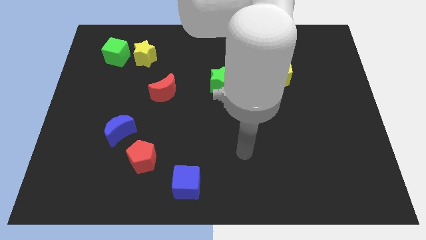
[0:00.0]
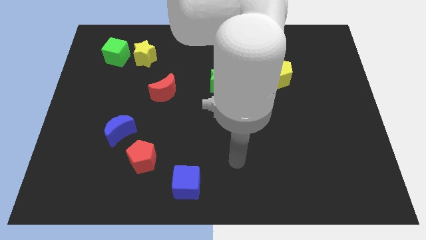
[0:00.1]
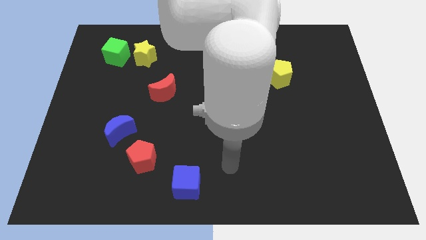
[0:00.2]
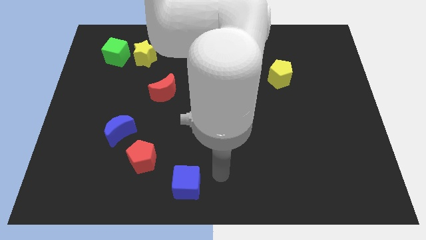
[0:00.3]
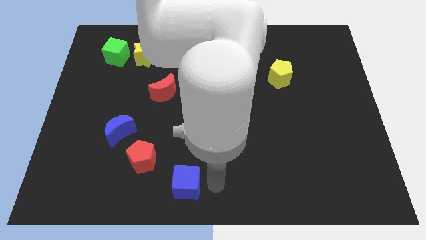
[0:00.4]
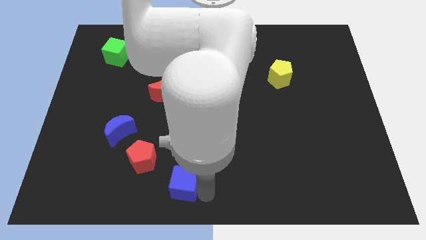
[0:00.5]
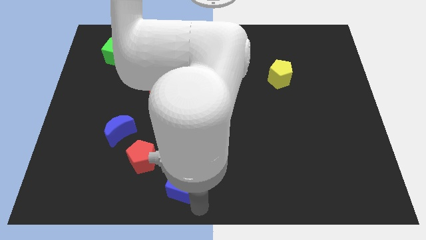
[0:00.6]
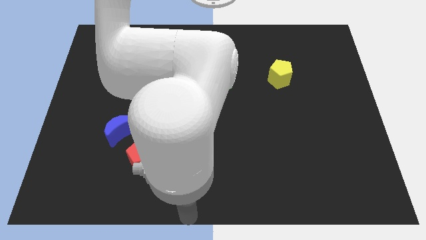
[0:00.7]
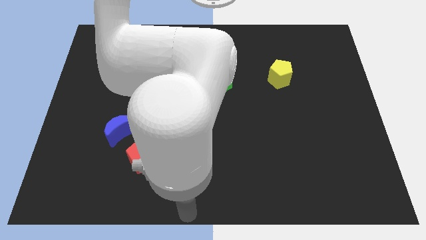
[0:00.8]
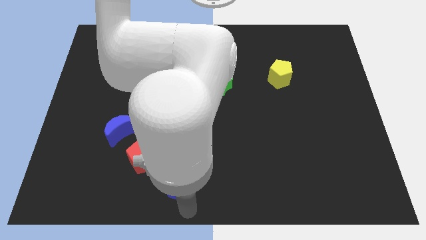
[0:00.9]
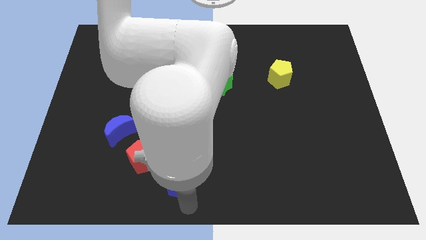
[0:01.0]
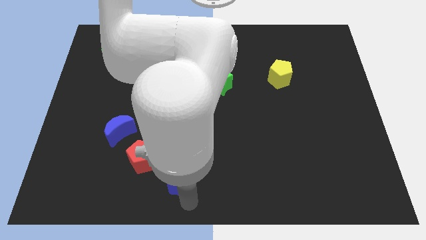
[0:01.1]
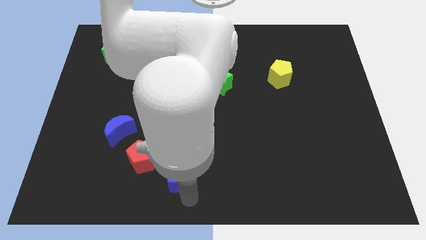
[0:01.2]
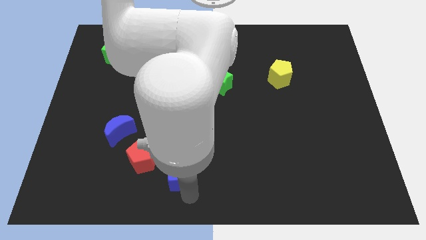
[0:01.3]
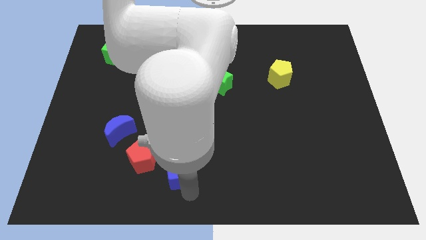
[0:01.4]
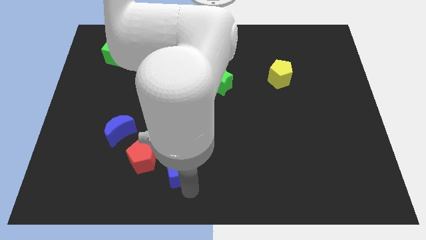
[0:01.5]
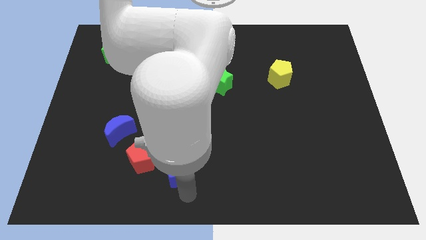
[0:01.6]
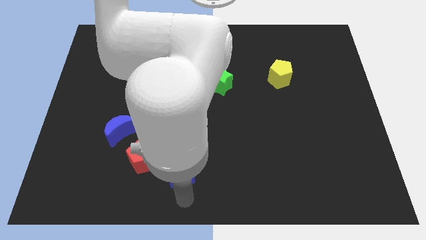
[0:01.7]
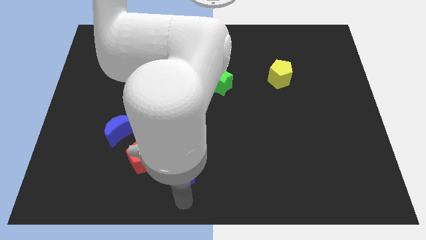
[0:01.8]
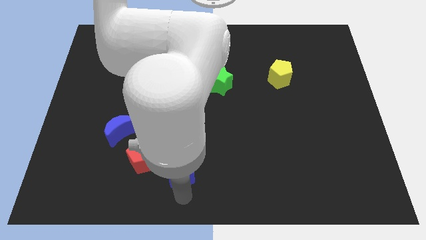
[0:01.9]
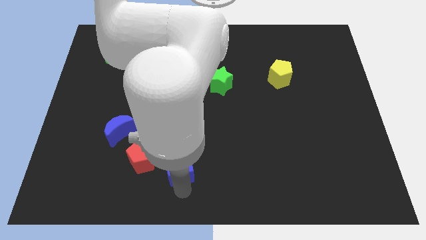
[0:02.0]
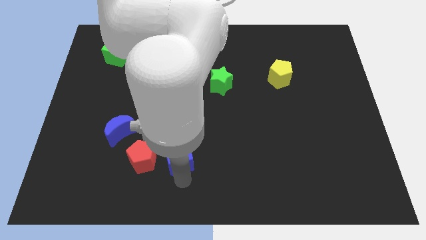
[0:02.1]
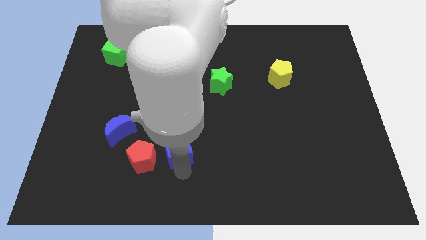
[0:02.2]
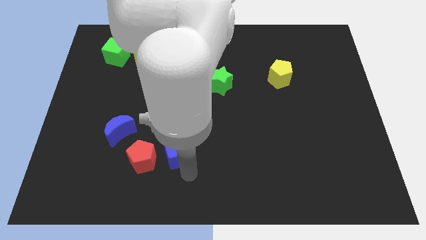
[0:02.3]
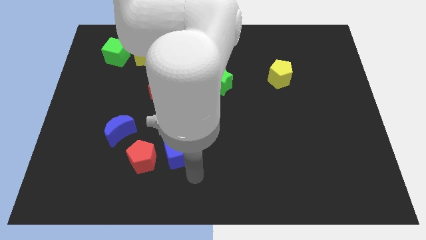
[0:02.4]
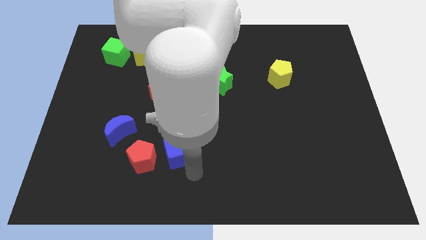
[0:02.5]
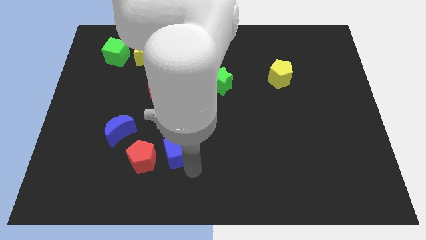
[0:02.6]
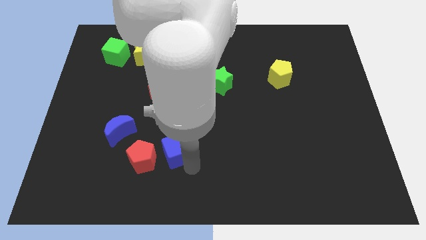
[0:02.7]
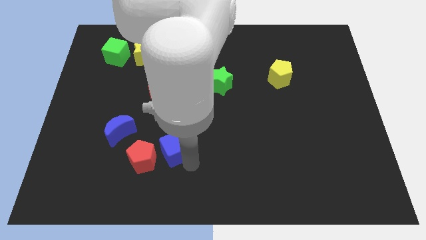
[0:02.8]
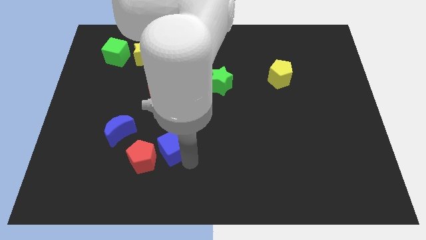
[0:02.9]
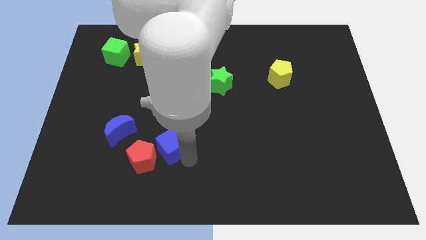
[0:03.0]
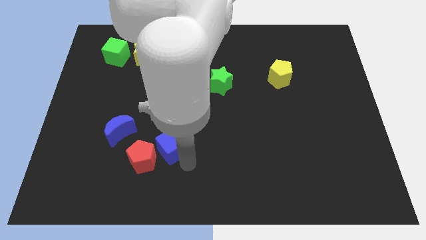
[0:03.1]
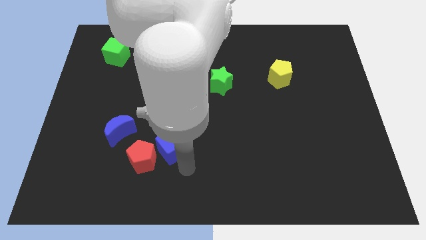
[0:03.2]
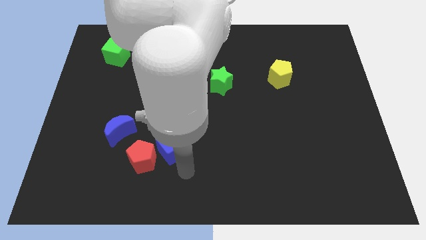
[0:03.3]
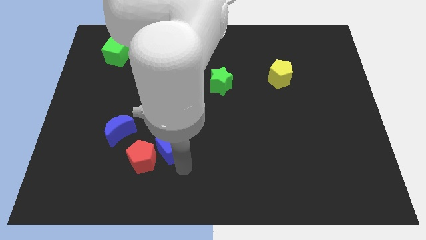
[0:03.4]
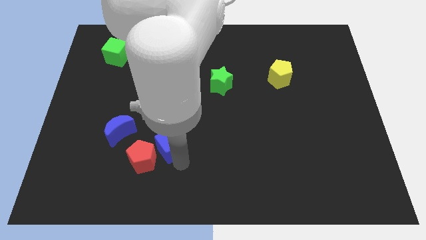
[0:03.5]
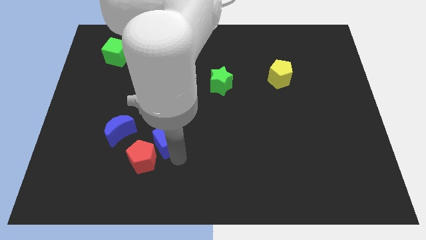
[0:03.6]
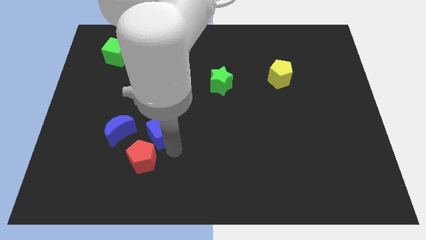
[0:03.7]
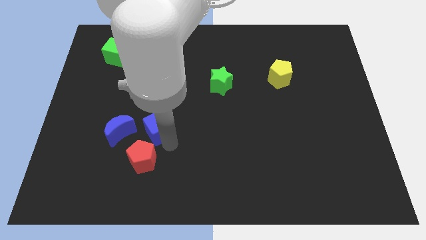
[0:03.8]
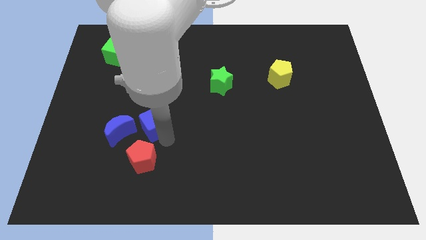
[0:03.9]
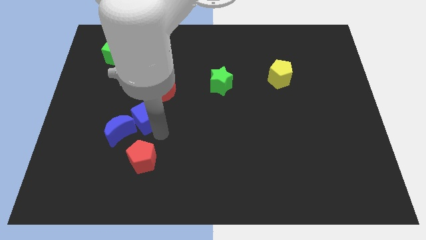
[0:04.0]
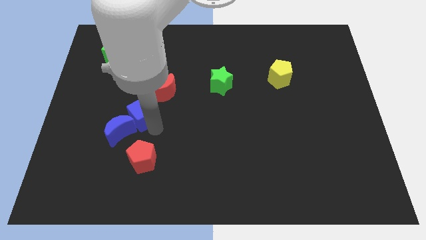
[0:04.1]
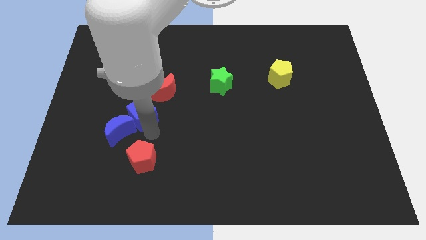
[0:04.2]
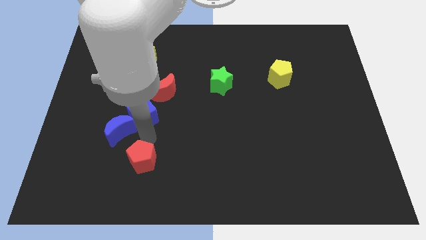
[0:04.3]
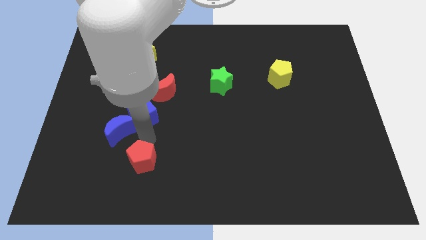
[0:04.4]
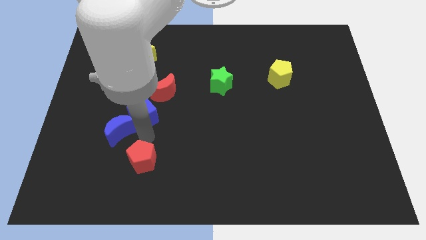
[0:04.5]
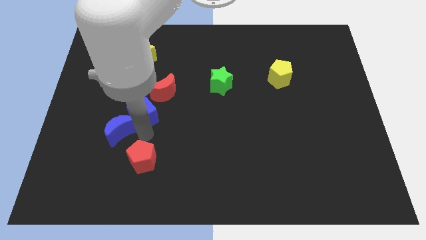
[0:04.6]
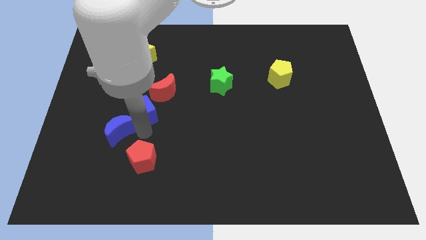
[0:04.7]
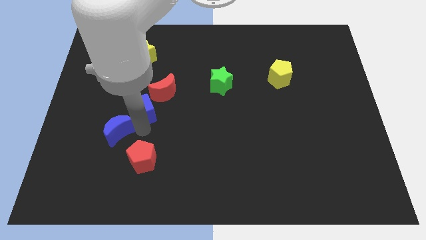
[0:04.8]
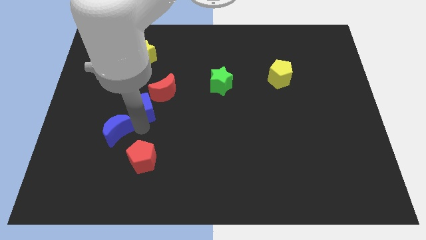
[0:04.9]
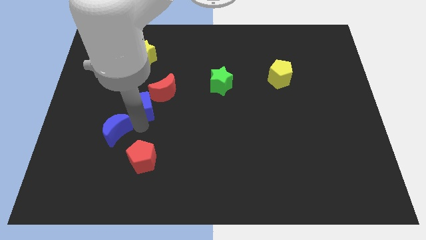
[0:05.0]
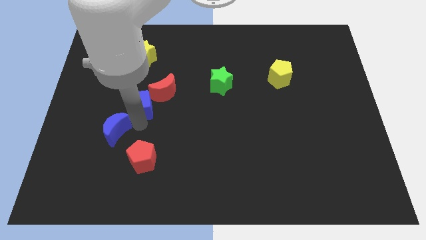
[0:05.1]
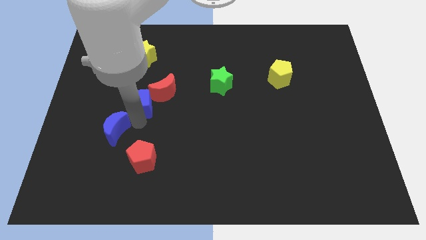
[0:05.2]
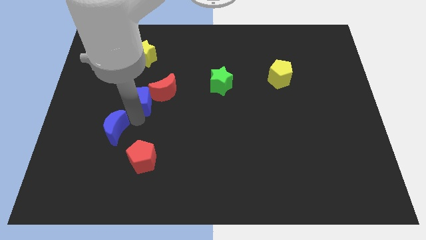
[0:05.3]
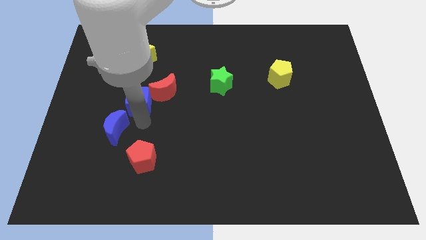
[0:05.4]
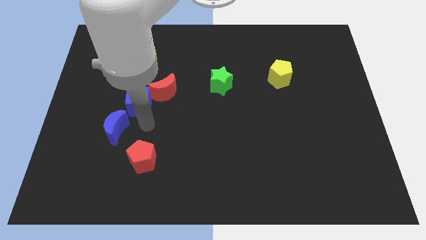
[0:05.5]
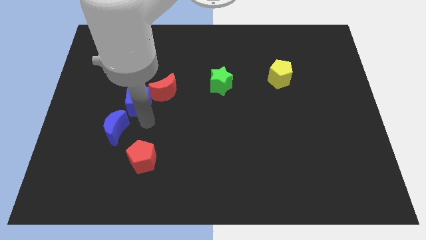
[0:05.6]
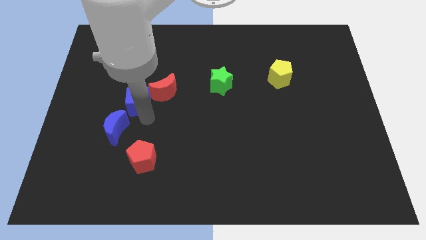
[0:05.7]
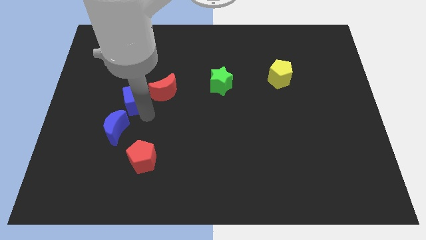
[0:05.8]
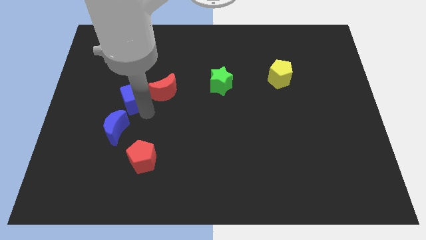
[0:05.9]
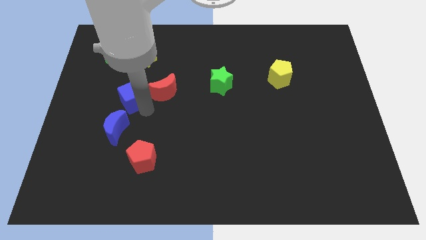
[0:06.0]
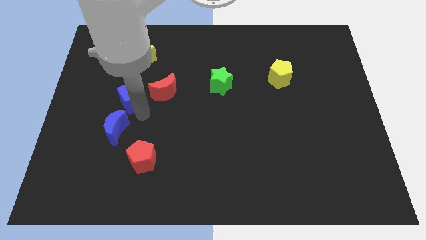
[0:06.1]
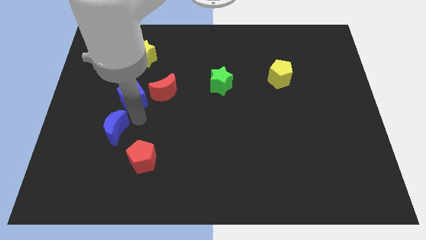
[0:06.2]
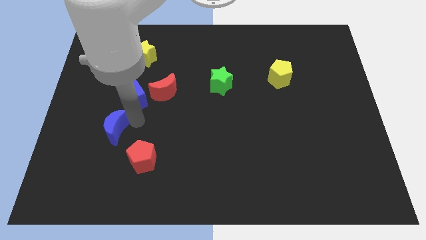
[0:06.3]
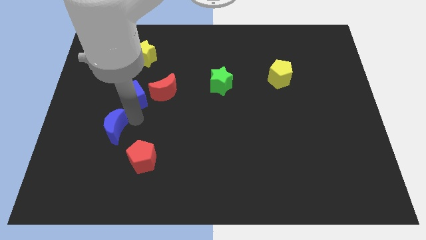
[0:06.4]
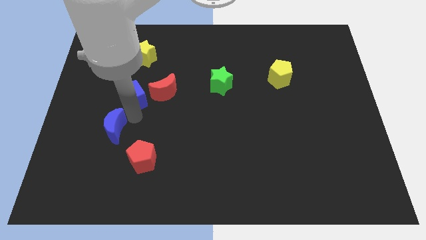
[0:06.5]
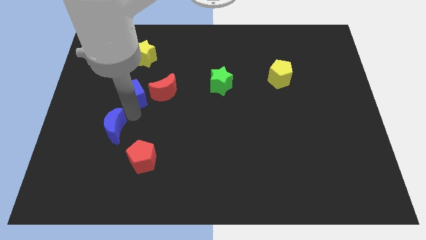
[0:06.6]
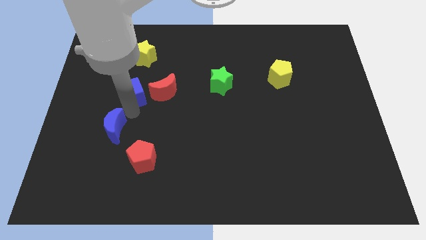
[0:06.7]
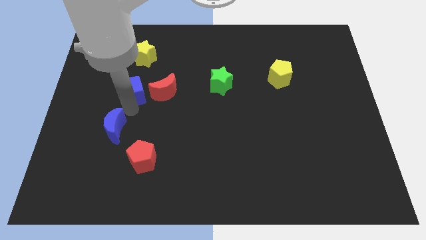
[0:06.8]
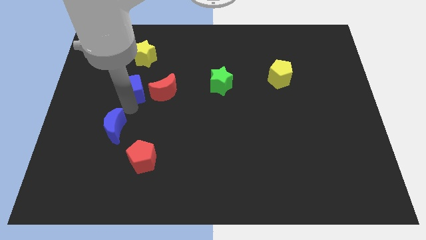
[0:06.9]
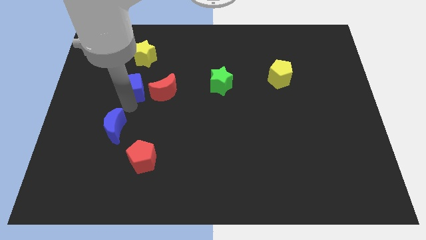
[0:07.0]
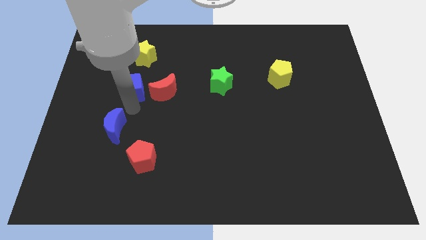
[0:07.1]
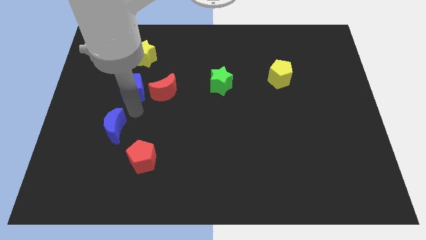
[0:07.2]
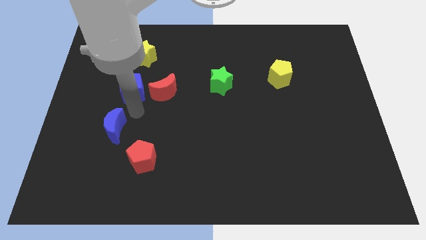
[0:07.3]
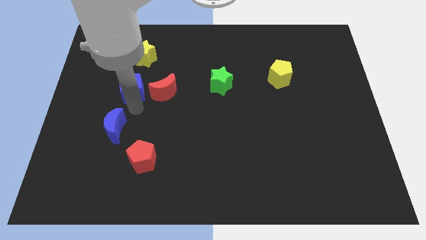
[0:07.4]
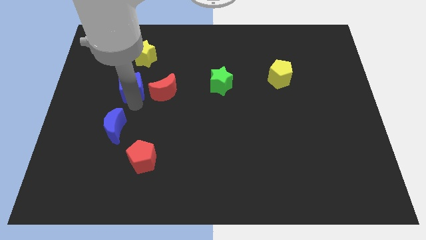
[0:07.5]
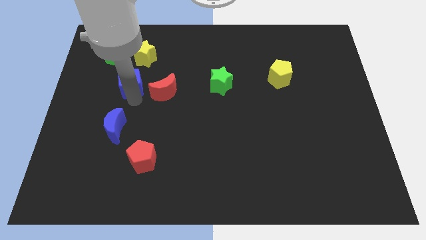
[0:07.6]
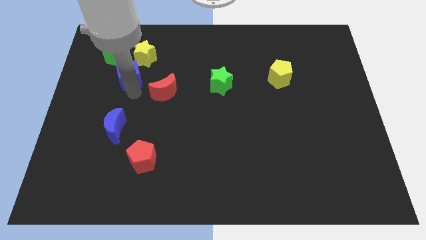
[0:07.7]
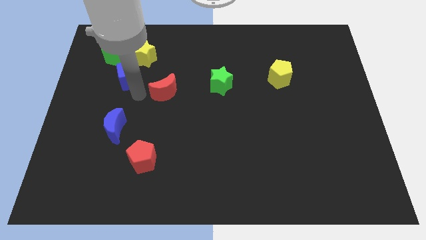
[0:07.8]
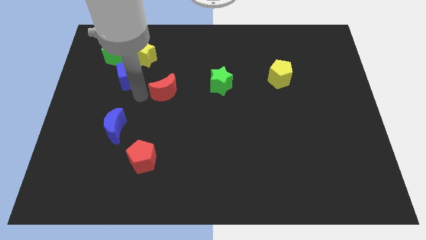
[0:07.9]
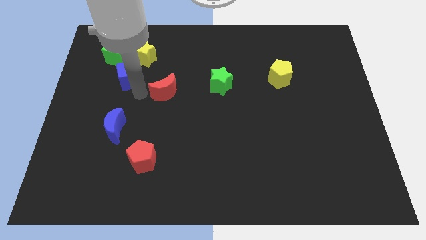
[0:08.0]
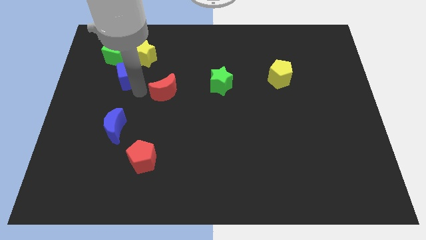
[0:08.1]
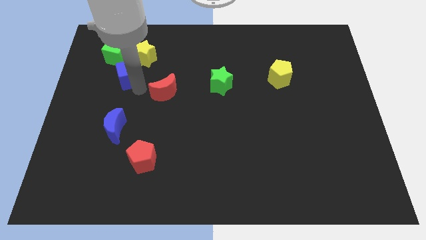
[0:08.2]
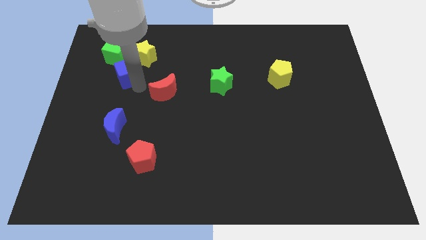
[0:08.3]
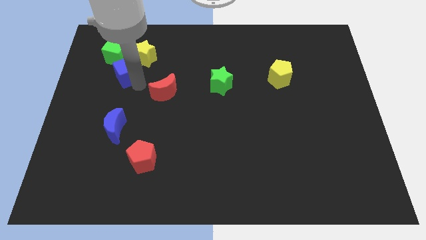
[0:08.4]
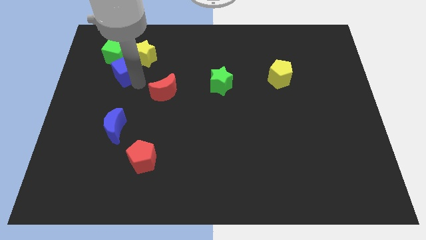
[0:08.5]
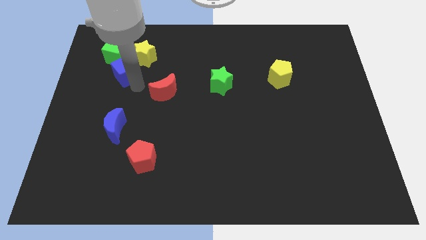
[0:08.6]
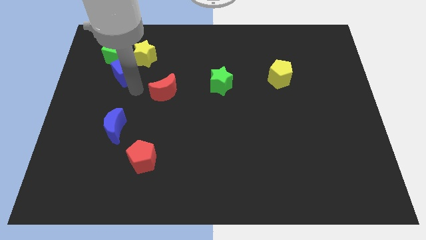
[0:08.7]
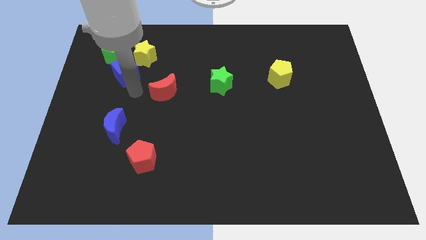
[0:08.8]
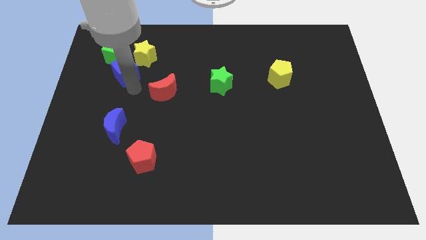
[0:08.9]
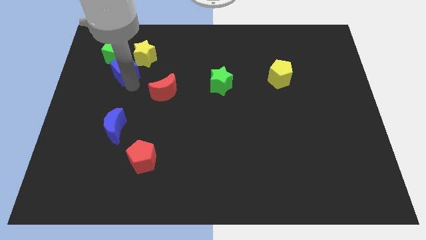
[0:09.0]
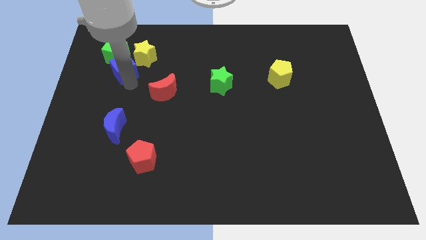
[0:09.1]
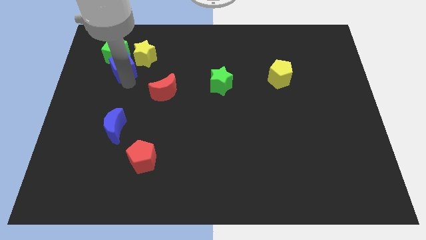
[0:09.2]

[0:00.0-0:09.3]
put the blue cube towards the green cube
